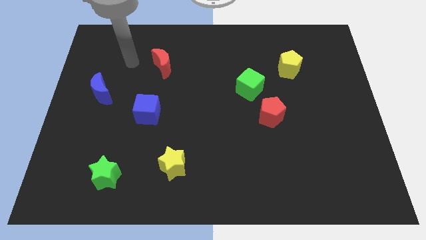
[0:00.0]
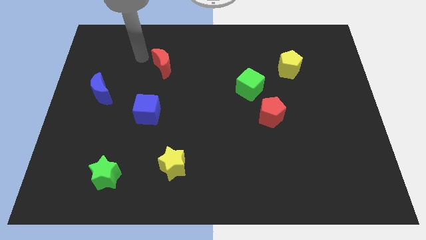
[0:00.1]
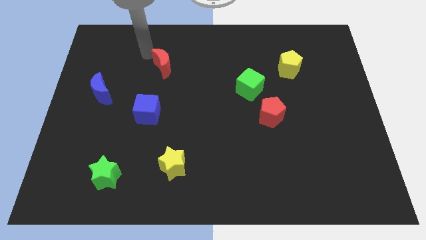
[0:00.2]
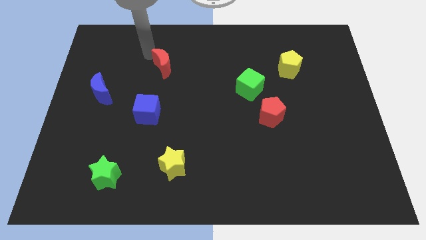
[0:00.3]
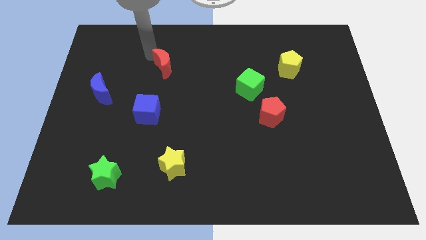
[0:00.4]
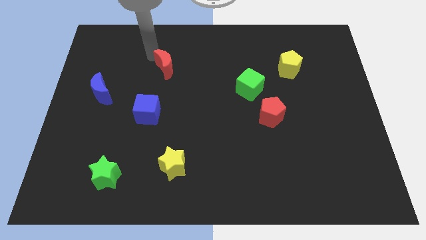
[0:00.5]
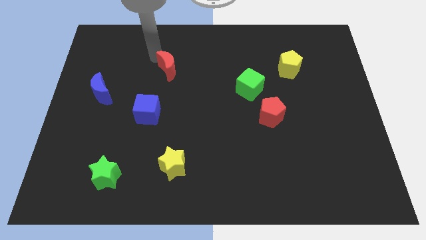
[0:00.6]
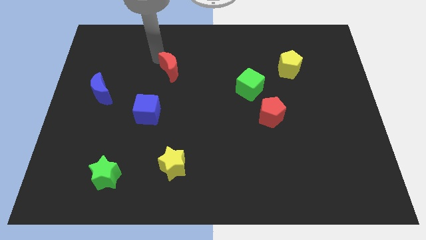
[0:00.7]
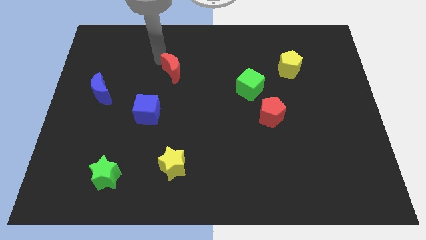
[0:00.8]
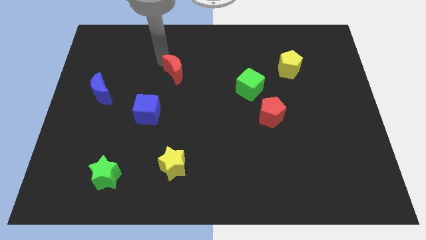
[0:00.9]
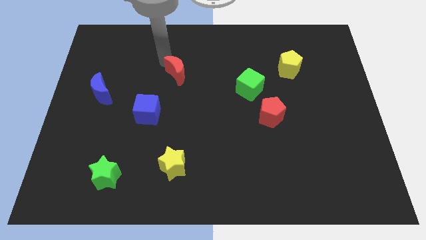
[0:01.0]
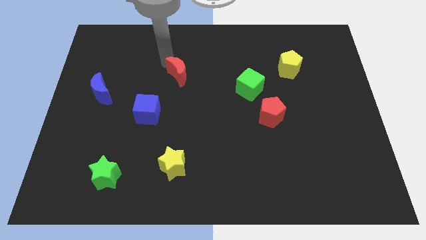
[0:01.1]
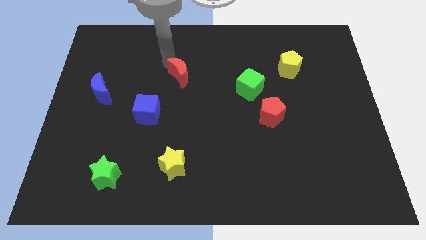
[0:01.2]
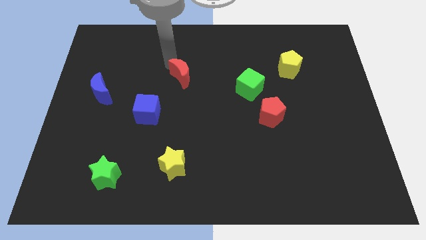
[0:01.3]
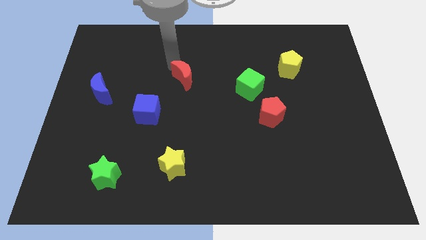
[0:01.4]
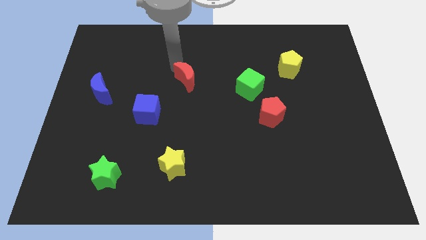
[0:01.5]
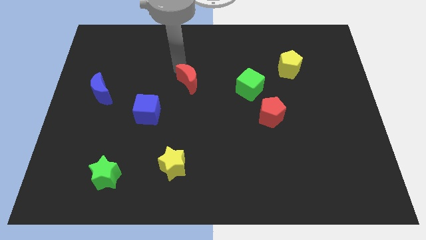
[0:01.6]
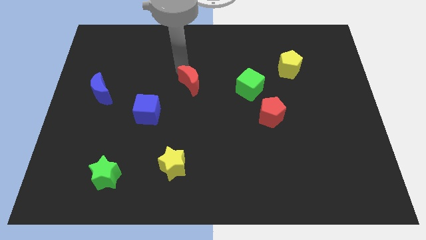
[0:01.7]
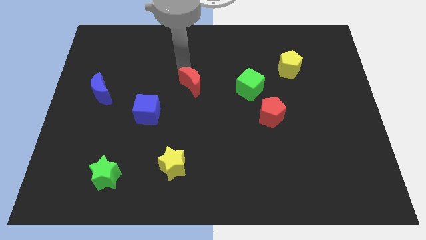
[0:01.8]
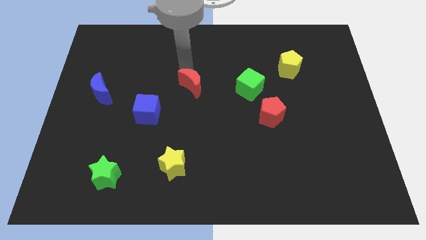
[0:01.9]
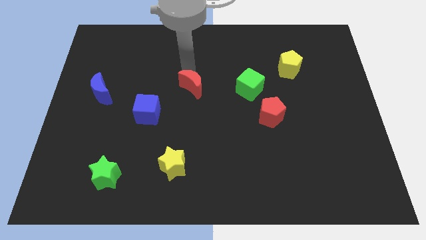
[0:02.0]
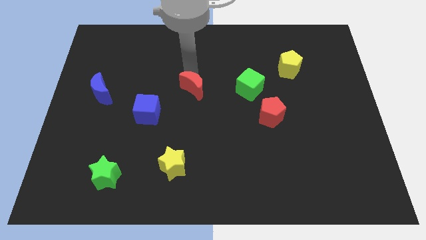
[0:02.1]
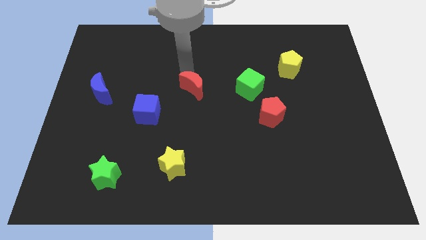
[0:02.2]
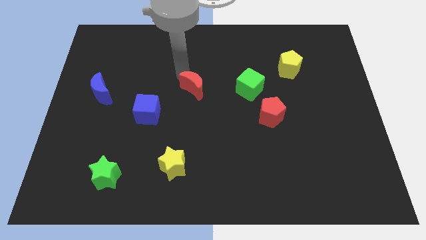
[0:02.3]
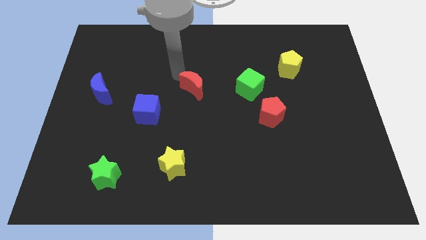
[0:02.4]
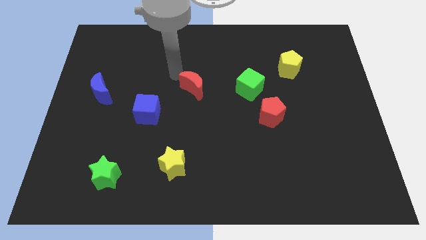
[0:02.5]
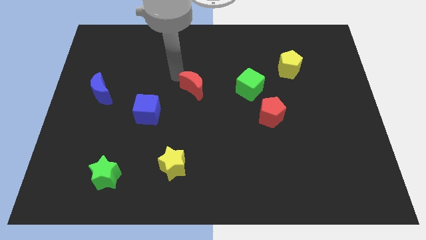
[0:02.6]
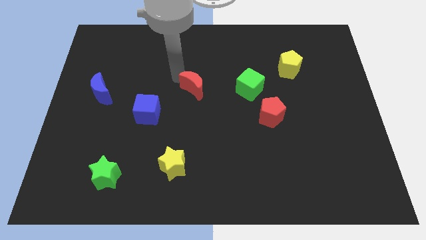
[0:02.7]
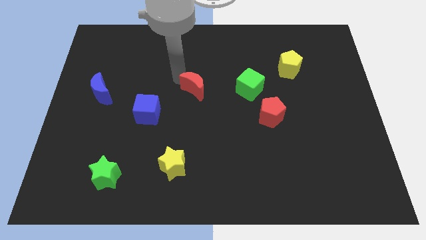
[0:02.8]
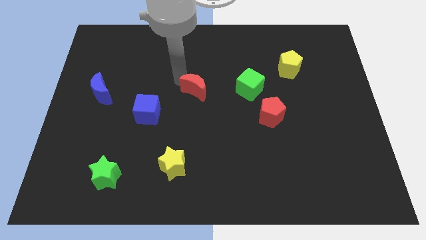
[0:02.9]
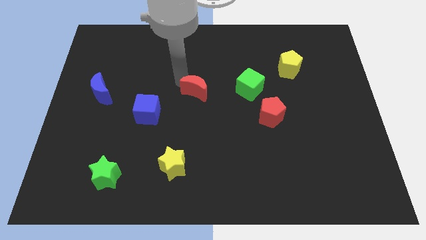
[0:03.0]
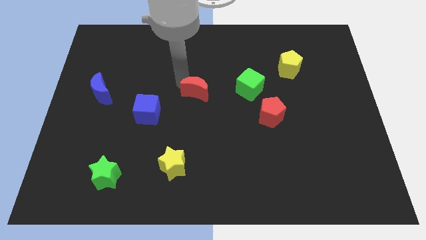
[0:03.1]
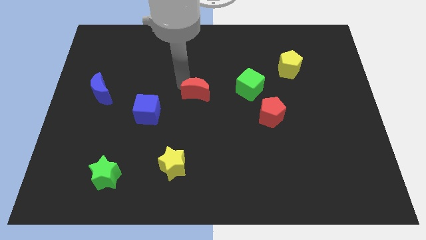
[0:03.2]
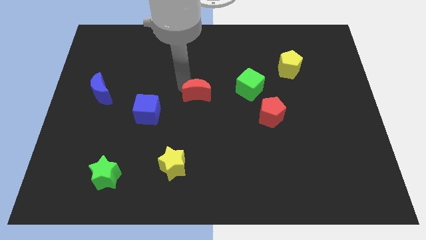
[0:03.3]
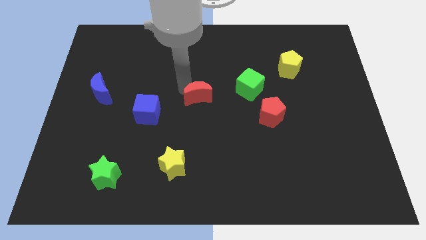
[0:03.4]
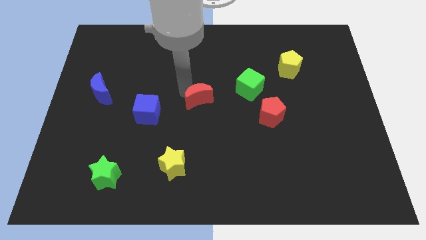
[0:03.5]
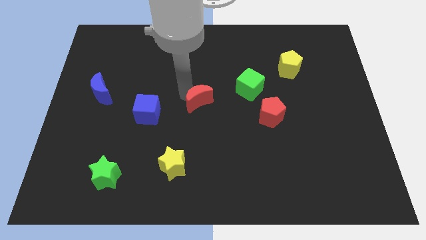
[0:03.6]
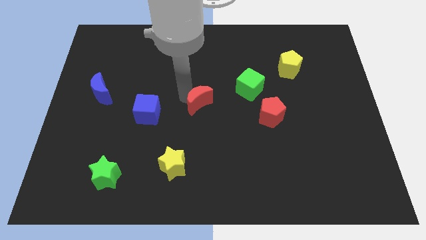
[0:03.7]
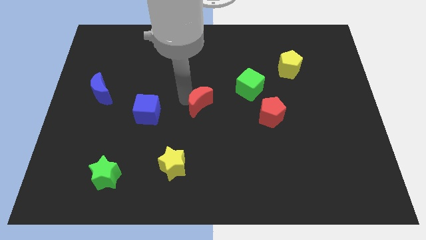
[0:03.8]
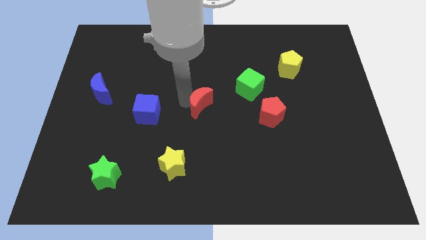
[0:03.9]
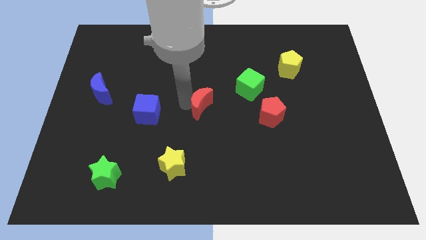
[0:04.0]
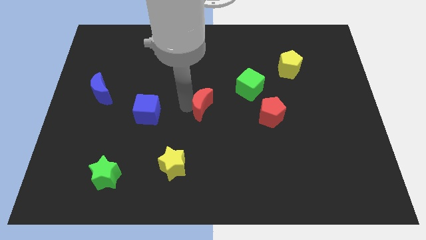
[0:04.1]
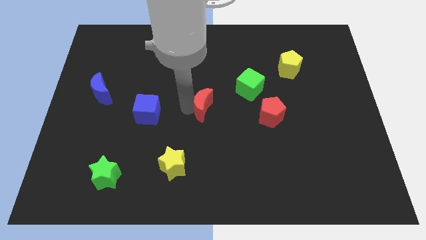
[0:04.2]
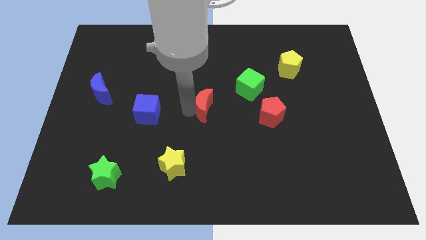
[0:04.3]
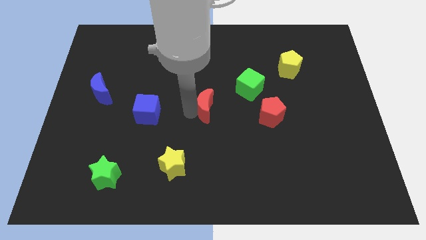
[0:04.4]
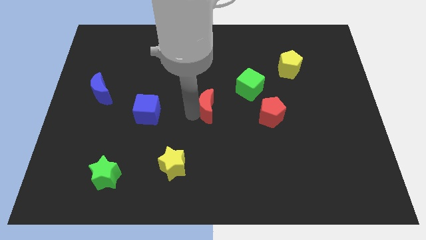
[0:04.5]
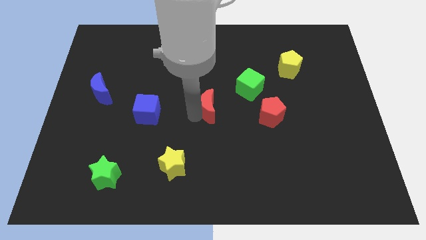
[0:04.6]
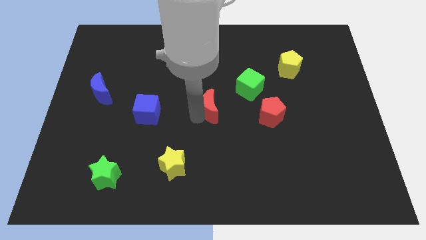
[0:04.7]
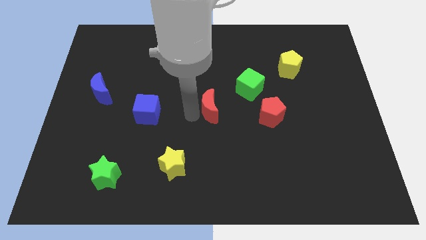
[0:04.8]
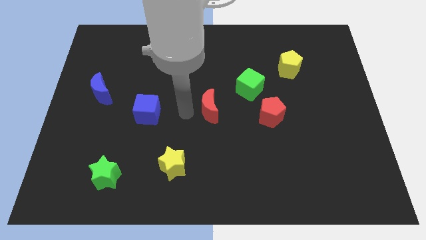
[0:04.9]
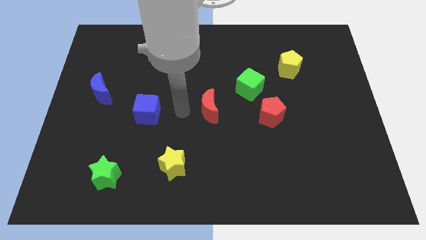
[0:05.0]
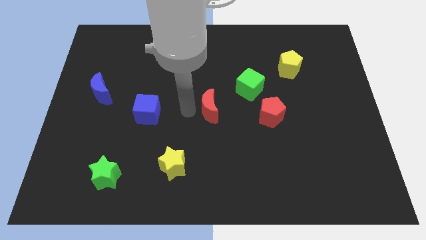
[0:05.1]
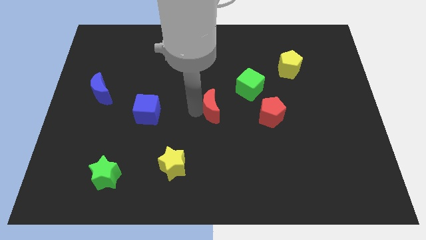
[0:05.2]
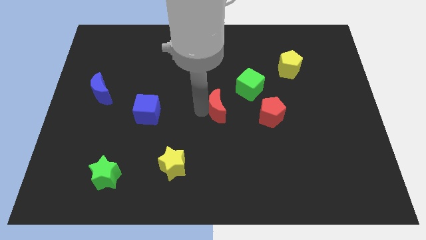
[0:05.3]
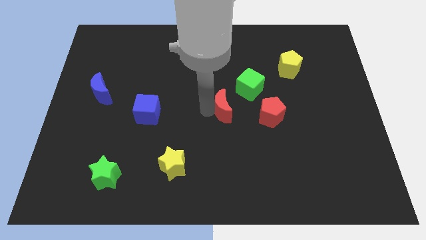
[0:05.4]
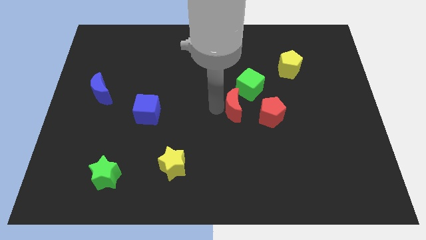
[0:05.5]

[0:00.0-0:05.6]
push the red moon to the bottom side of the green cube

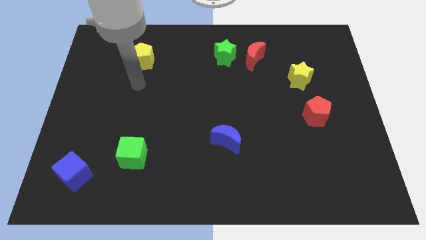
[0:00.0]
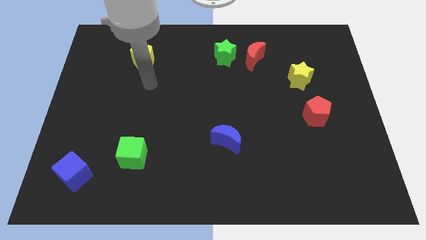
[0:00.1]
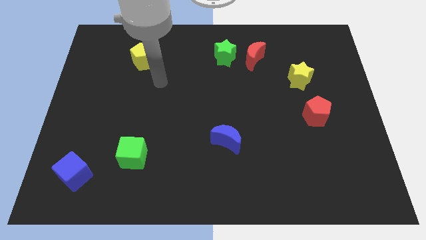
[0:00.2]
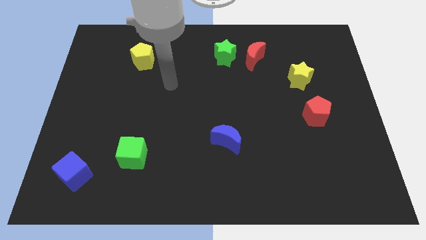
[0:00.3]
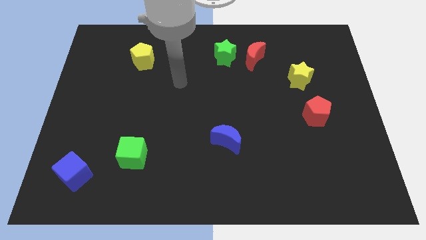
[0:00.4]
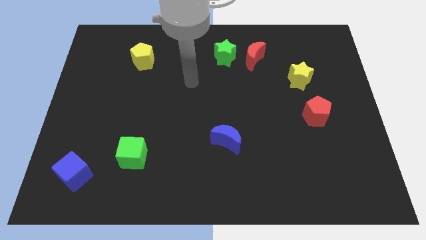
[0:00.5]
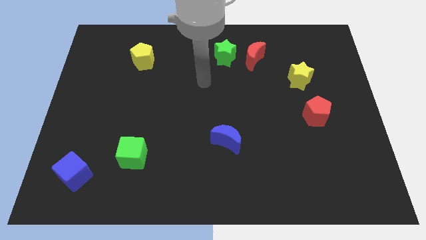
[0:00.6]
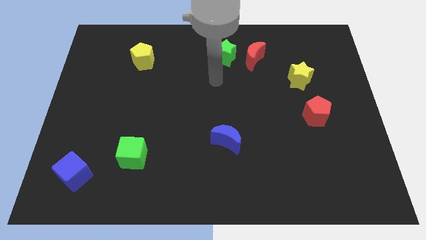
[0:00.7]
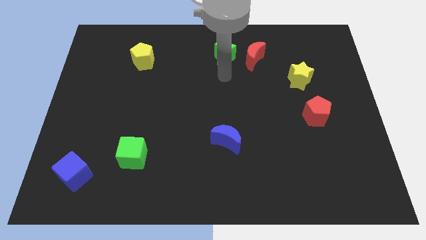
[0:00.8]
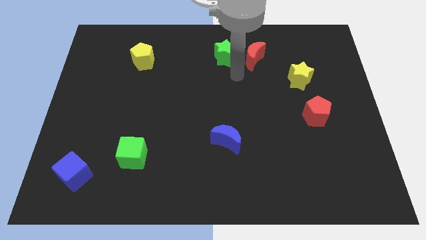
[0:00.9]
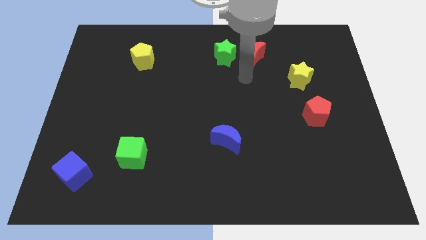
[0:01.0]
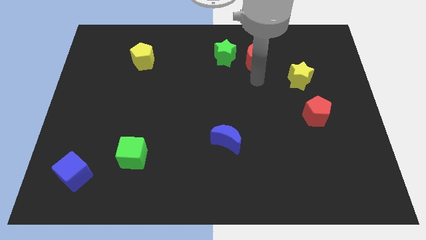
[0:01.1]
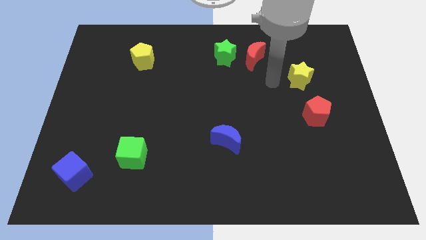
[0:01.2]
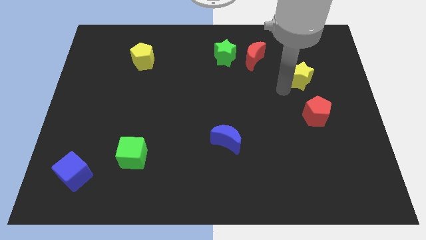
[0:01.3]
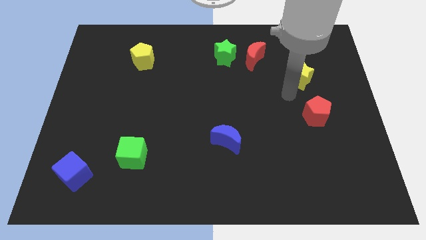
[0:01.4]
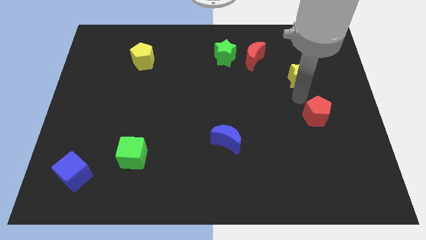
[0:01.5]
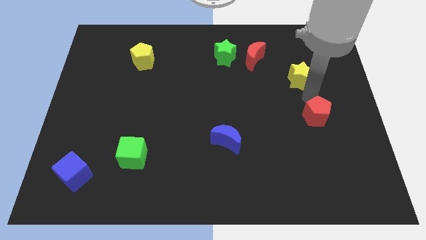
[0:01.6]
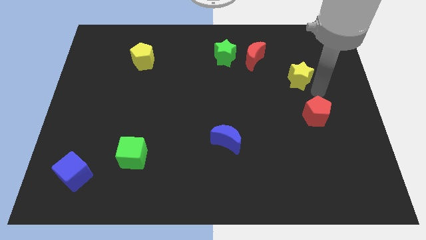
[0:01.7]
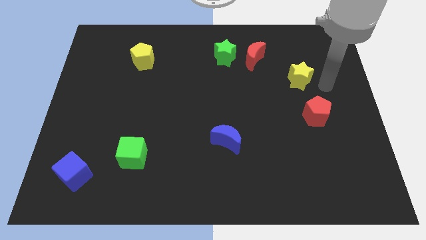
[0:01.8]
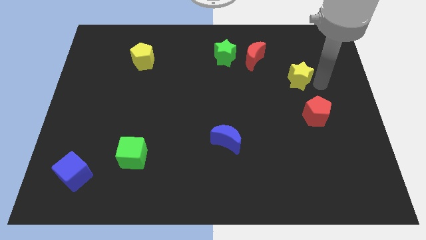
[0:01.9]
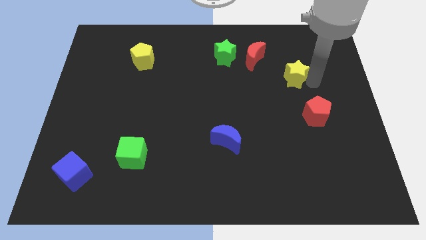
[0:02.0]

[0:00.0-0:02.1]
push the yellow star to the bottom right side of the red moon
